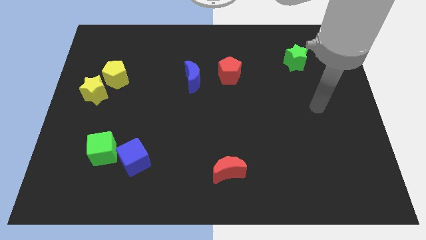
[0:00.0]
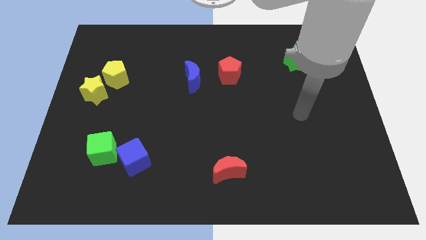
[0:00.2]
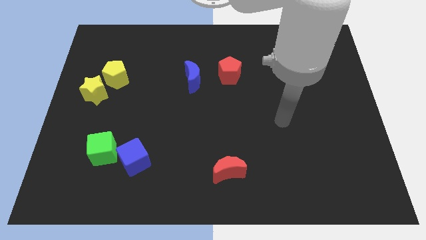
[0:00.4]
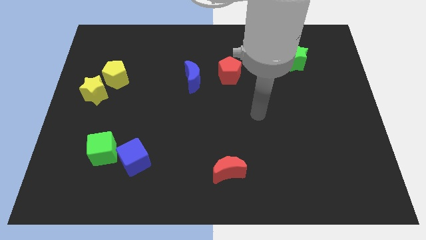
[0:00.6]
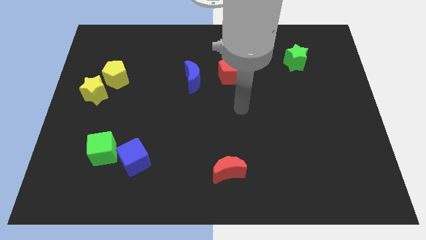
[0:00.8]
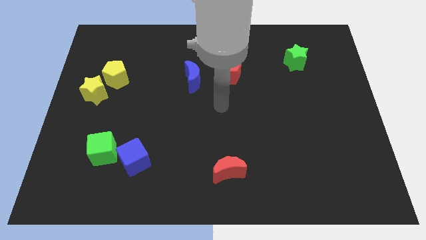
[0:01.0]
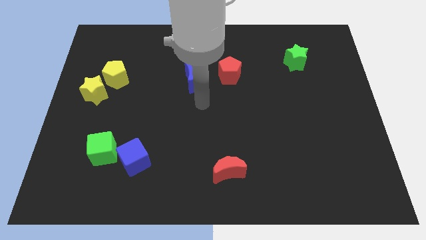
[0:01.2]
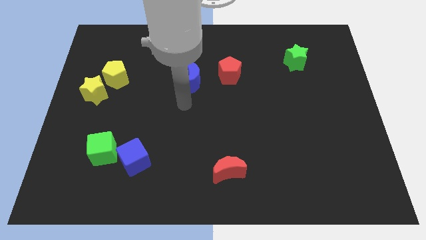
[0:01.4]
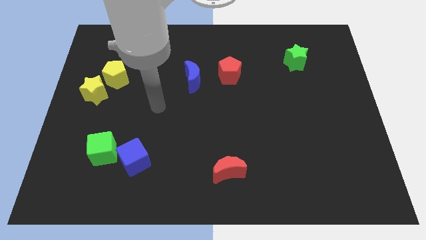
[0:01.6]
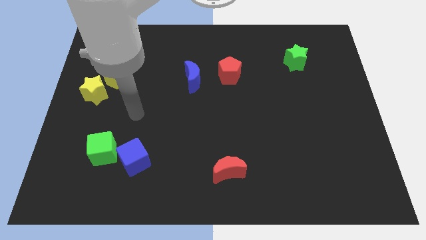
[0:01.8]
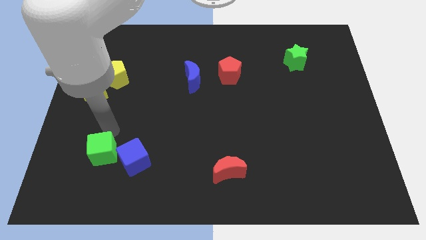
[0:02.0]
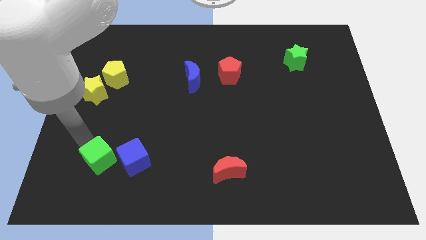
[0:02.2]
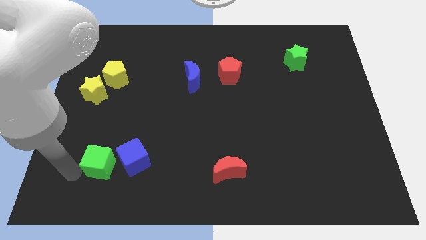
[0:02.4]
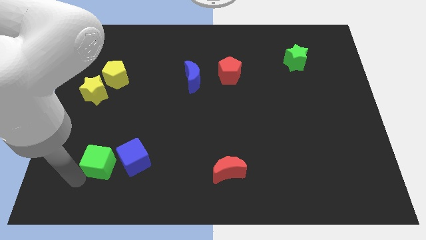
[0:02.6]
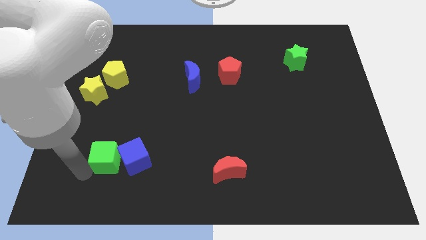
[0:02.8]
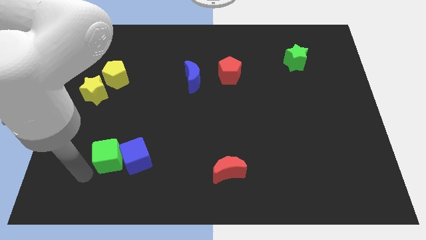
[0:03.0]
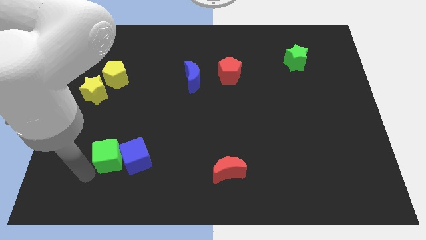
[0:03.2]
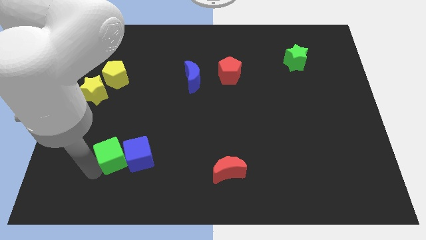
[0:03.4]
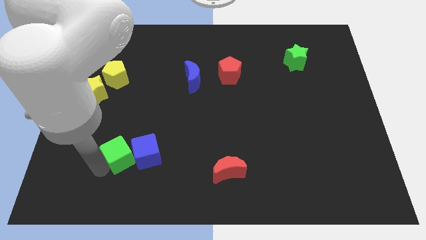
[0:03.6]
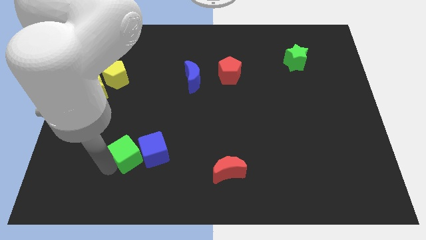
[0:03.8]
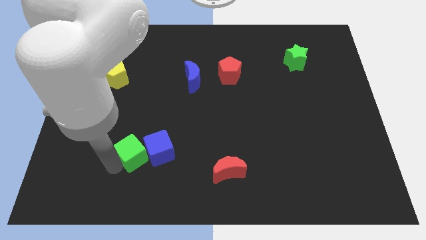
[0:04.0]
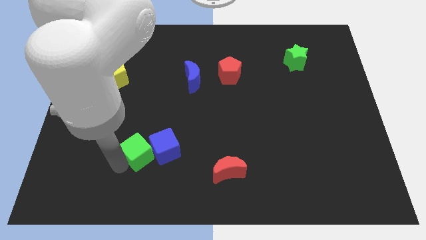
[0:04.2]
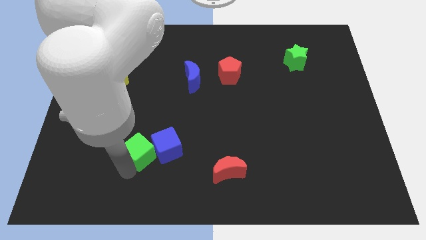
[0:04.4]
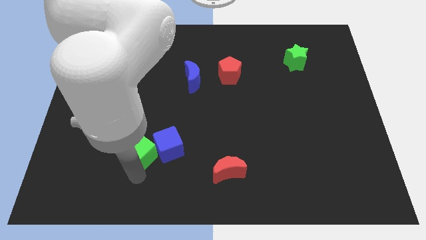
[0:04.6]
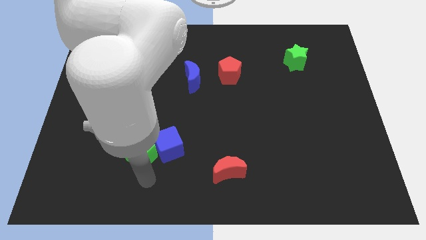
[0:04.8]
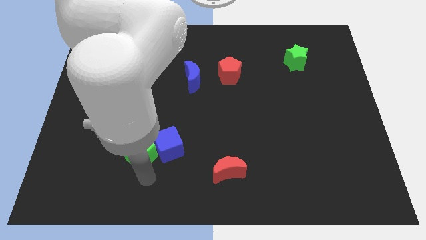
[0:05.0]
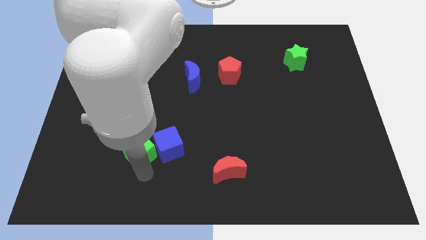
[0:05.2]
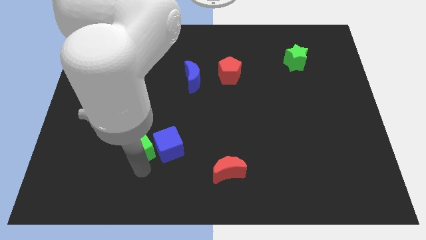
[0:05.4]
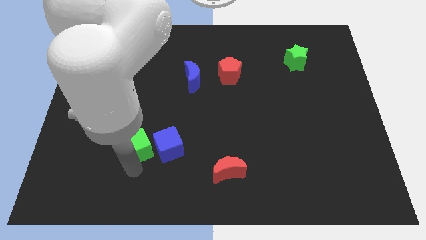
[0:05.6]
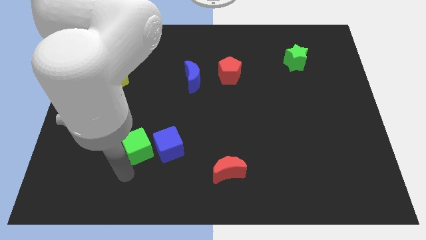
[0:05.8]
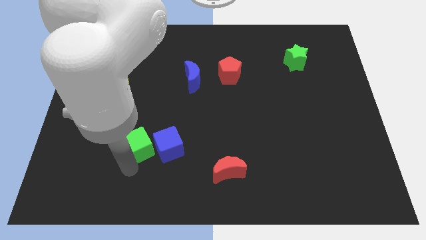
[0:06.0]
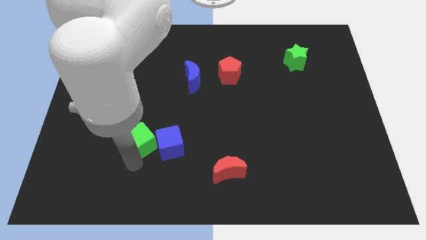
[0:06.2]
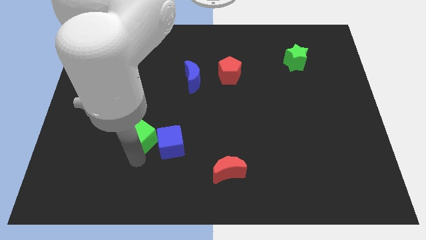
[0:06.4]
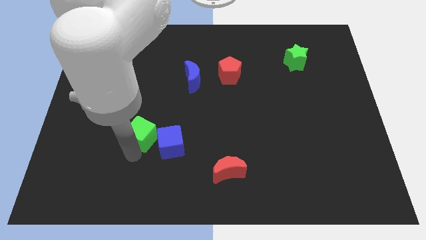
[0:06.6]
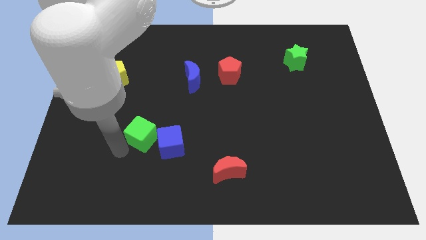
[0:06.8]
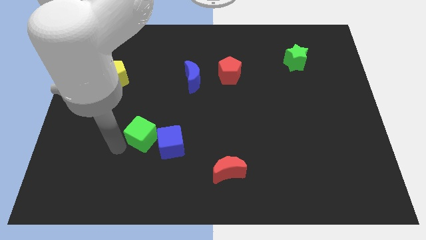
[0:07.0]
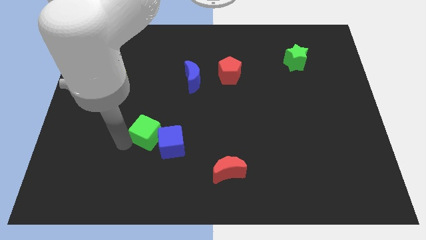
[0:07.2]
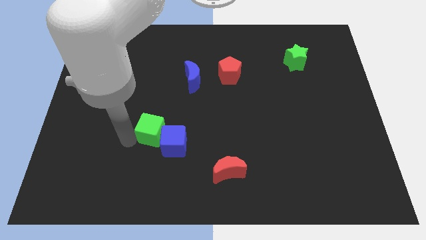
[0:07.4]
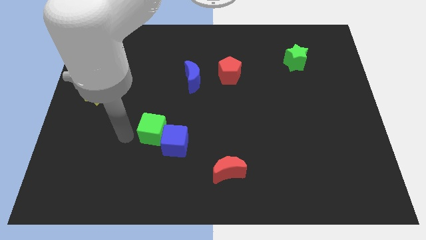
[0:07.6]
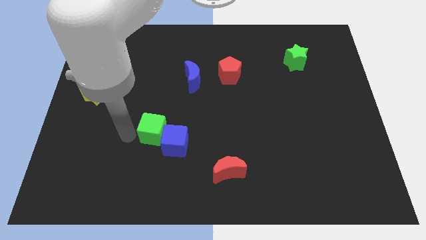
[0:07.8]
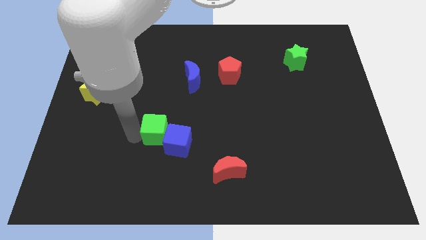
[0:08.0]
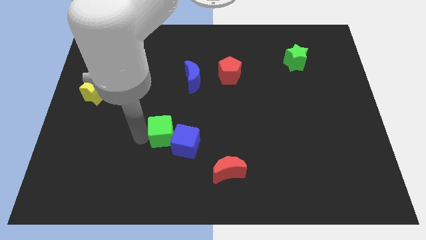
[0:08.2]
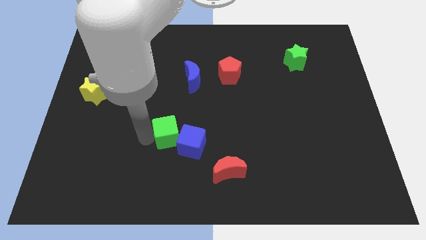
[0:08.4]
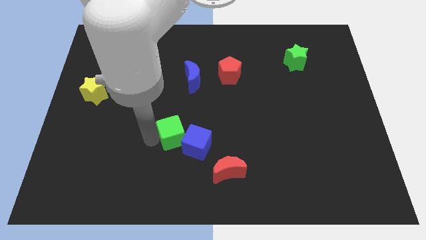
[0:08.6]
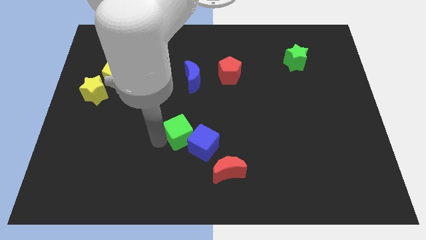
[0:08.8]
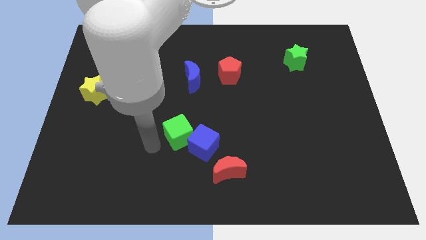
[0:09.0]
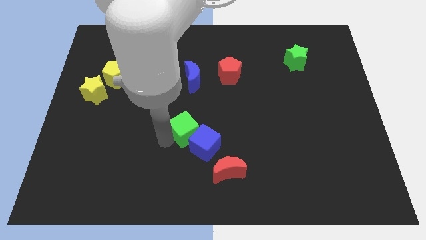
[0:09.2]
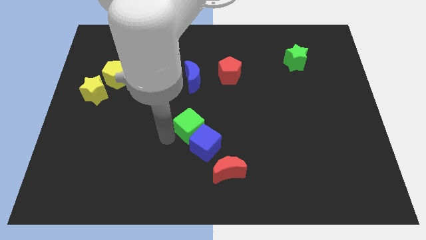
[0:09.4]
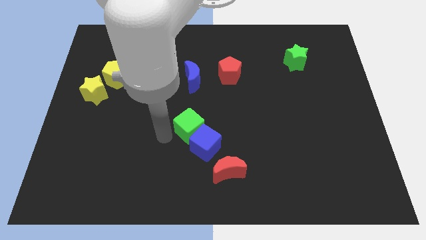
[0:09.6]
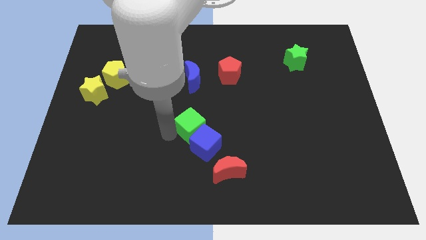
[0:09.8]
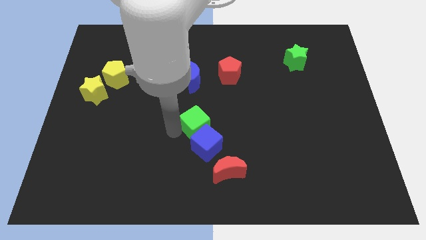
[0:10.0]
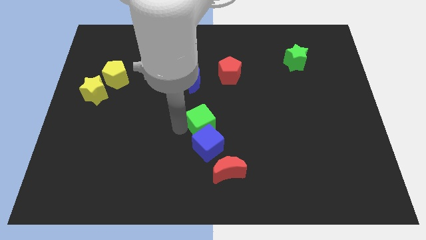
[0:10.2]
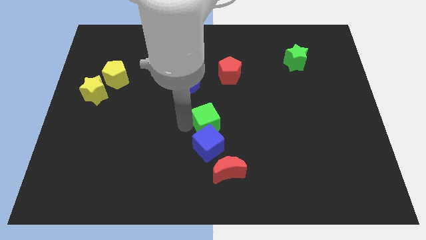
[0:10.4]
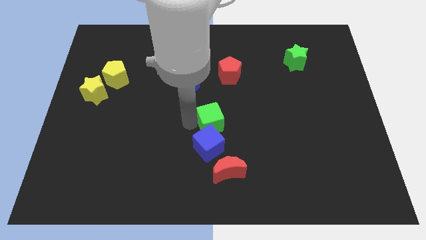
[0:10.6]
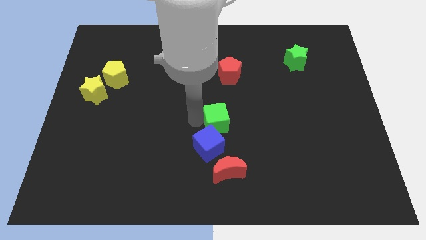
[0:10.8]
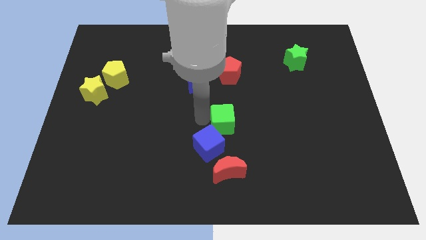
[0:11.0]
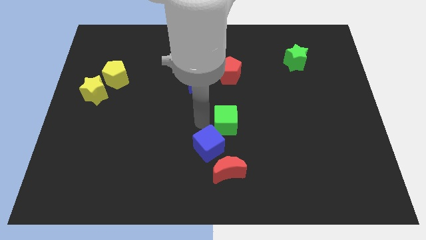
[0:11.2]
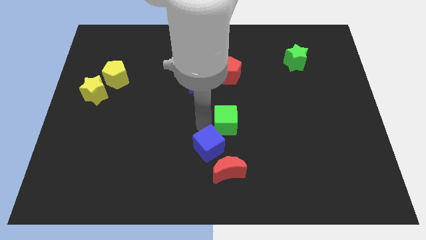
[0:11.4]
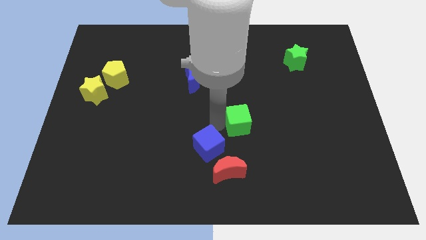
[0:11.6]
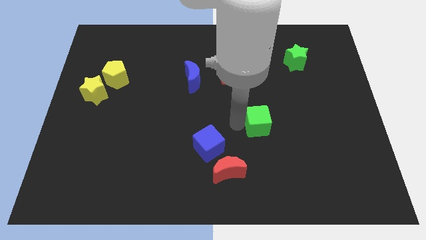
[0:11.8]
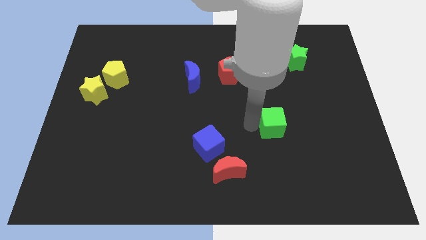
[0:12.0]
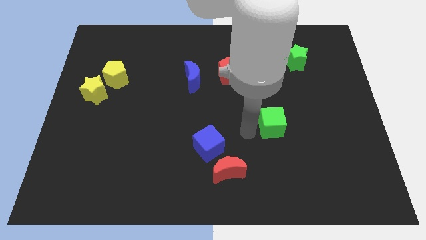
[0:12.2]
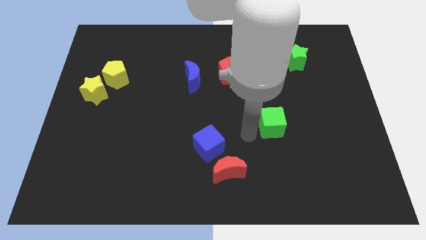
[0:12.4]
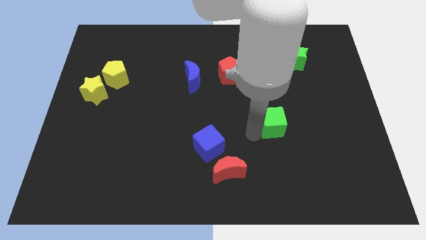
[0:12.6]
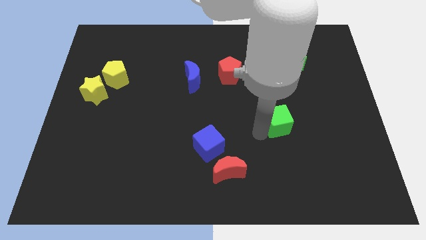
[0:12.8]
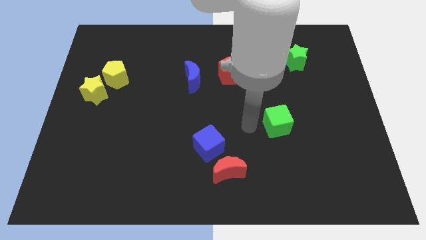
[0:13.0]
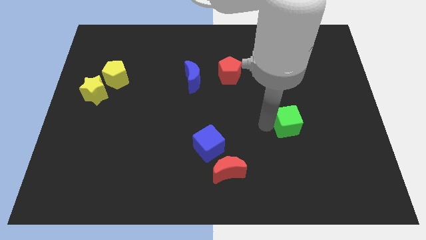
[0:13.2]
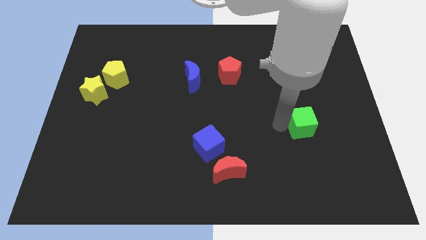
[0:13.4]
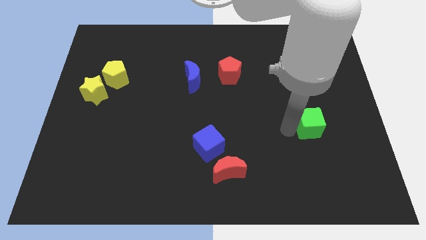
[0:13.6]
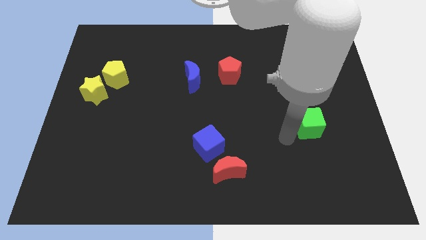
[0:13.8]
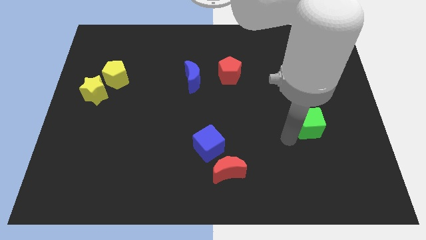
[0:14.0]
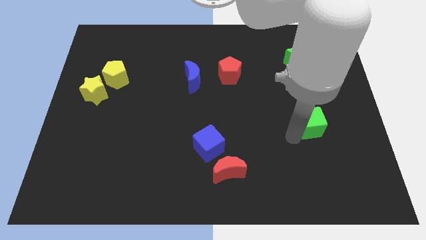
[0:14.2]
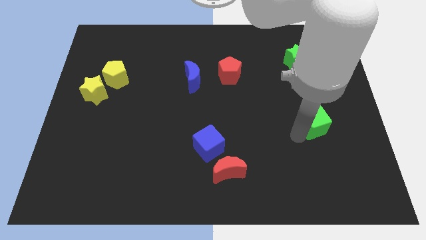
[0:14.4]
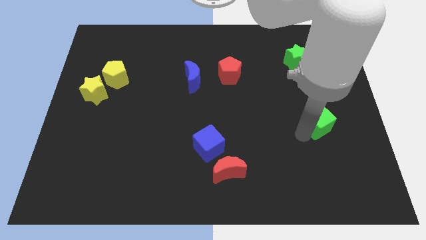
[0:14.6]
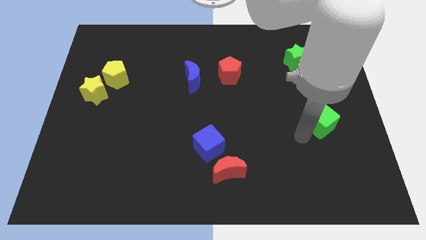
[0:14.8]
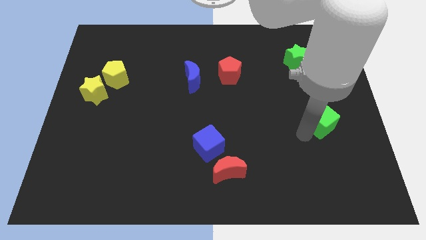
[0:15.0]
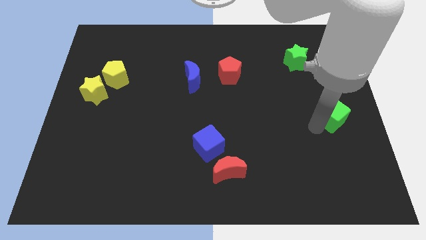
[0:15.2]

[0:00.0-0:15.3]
push the green cube to the right side

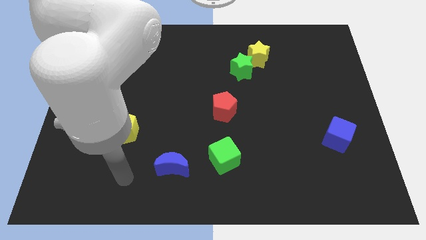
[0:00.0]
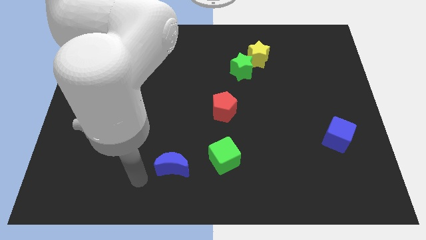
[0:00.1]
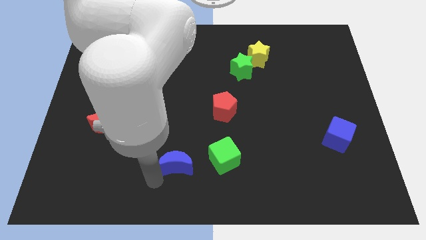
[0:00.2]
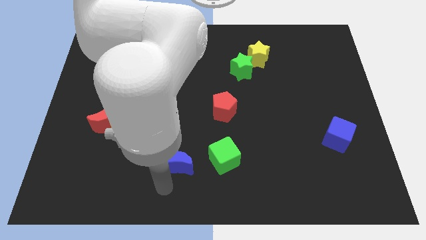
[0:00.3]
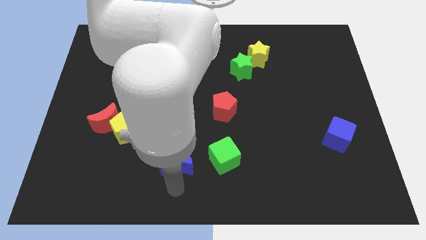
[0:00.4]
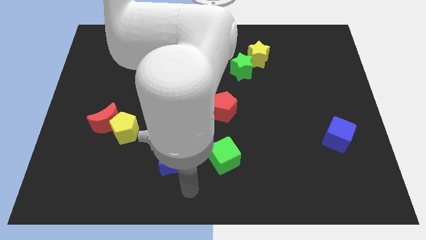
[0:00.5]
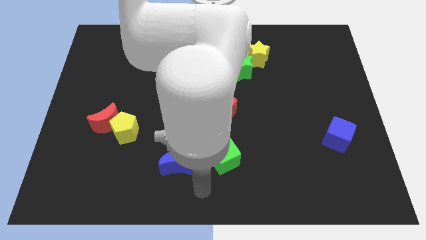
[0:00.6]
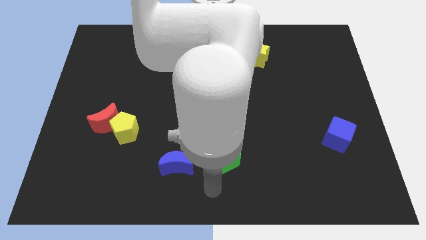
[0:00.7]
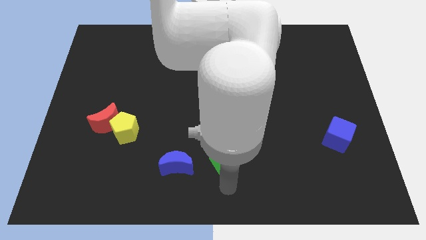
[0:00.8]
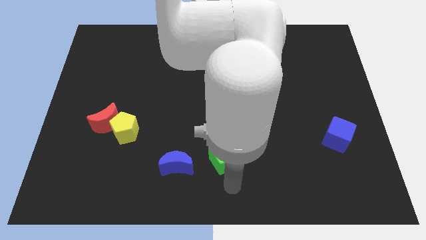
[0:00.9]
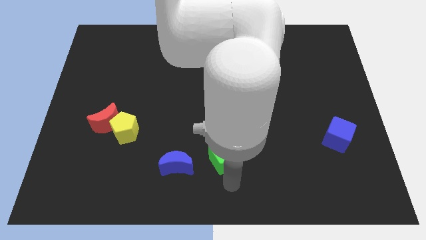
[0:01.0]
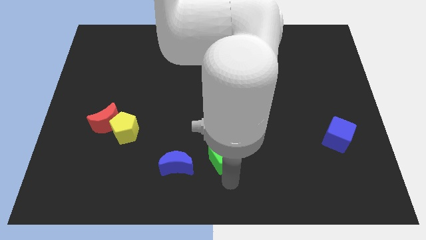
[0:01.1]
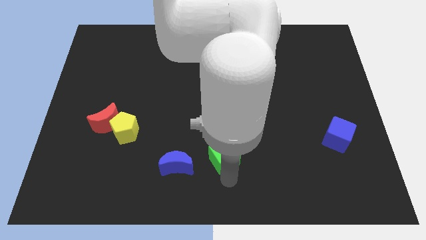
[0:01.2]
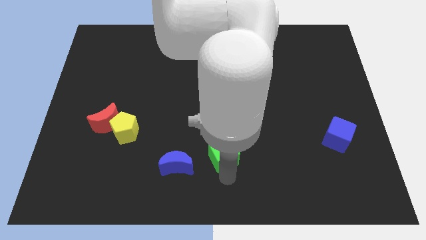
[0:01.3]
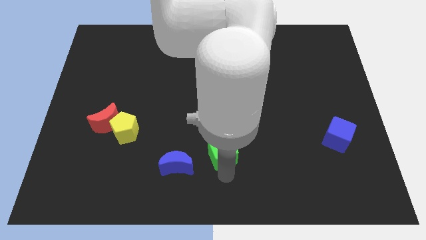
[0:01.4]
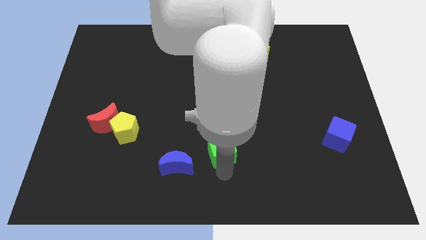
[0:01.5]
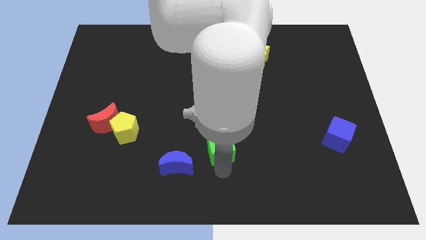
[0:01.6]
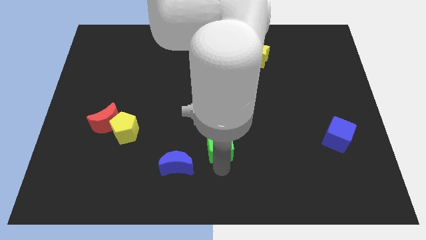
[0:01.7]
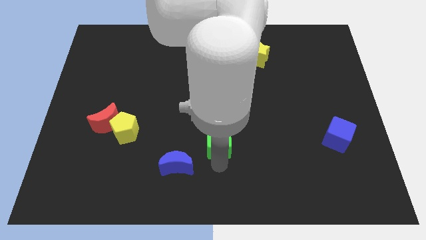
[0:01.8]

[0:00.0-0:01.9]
push the green cube to the middle of the board
